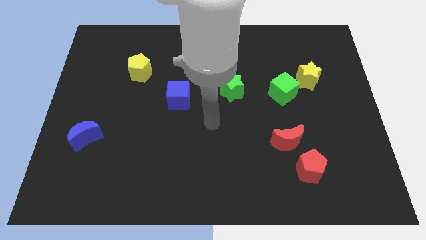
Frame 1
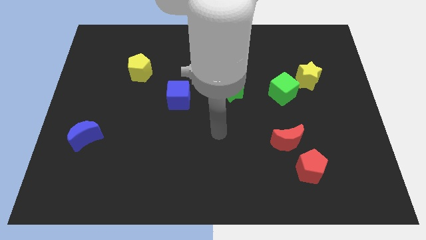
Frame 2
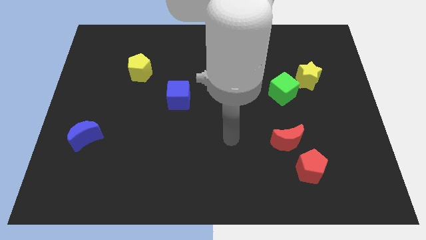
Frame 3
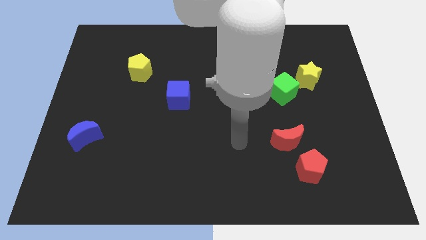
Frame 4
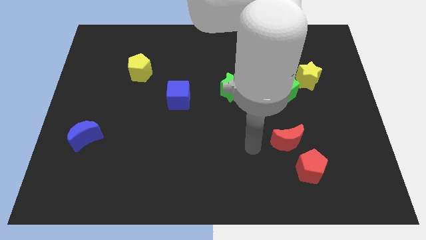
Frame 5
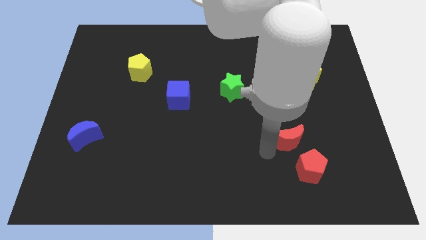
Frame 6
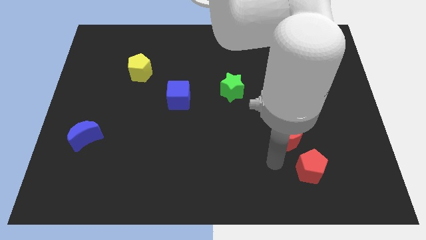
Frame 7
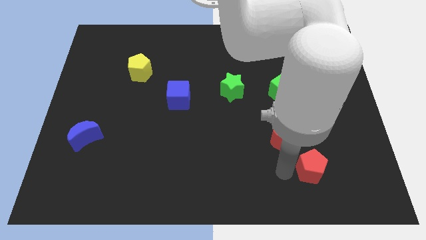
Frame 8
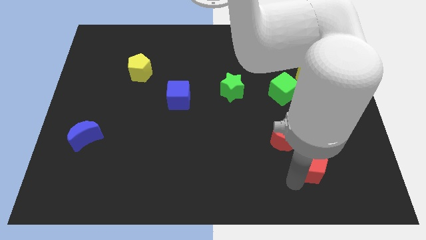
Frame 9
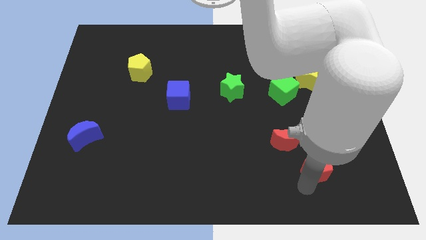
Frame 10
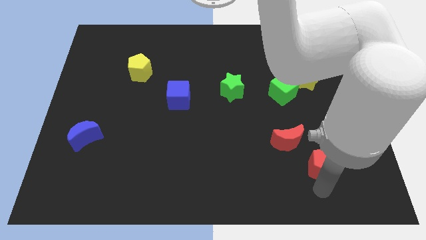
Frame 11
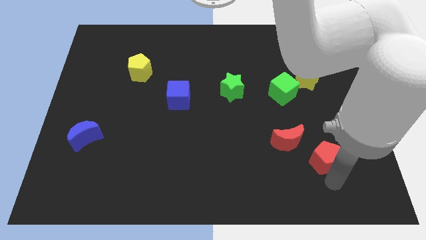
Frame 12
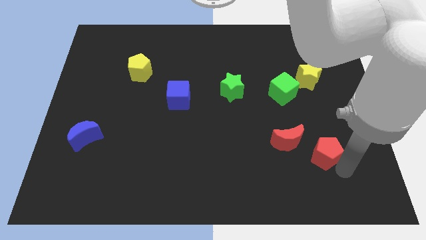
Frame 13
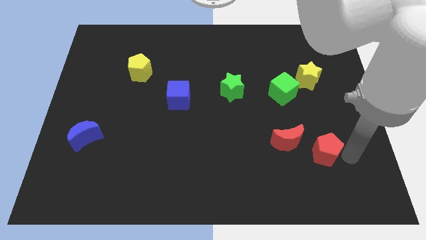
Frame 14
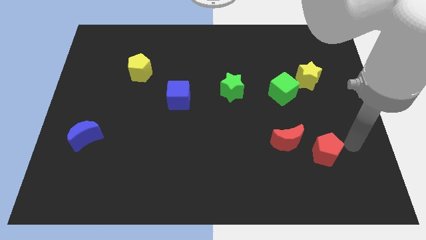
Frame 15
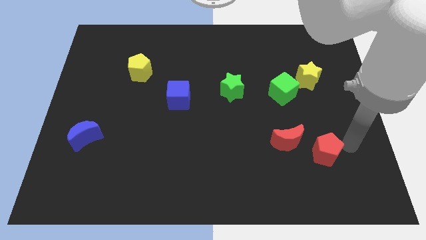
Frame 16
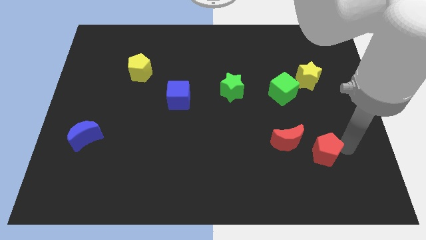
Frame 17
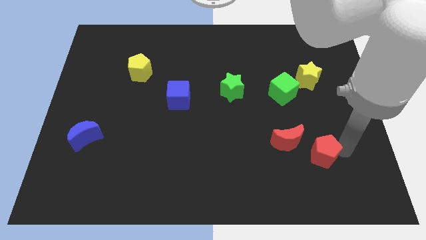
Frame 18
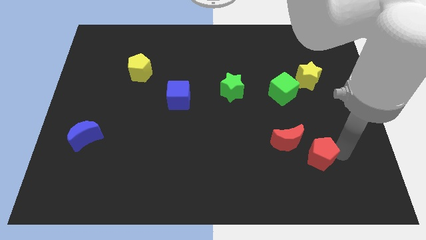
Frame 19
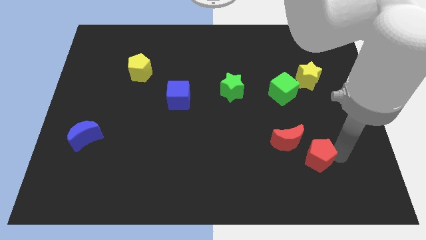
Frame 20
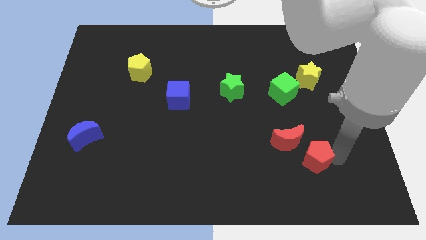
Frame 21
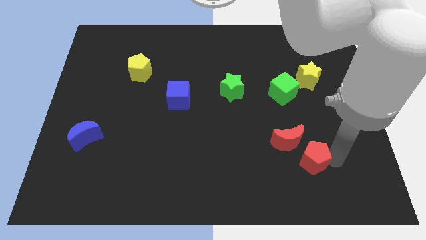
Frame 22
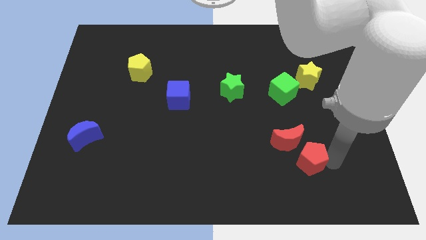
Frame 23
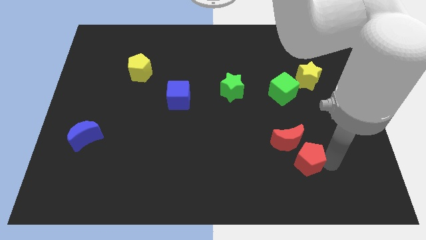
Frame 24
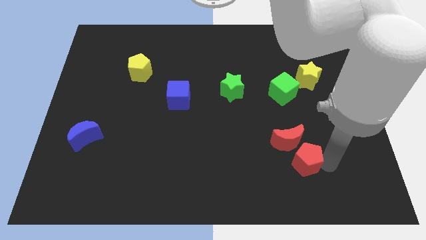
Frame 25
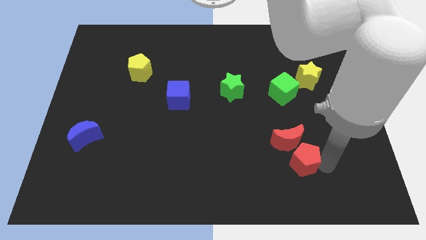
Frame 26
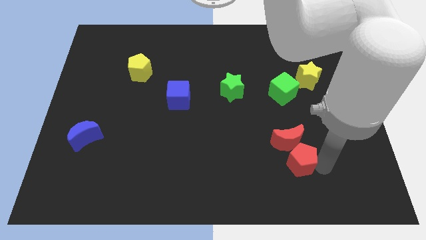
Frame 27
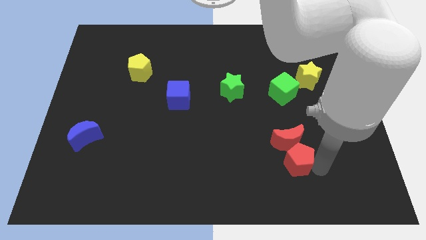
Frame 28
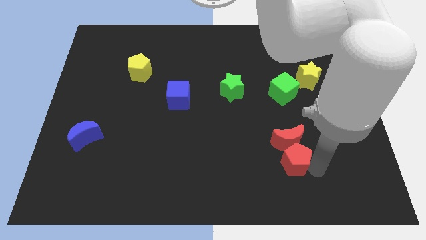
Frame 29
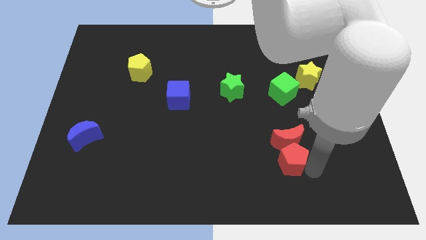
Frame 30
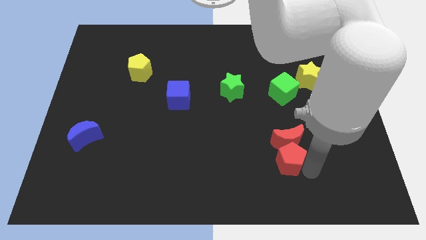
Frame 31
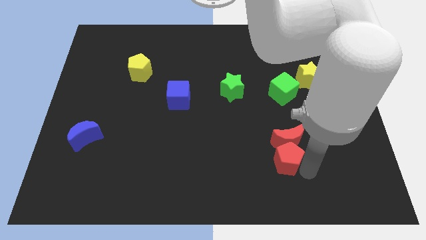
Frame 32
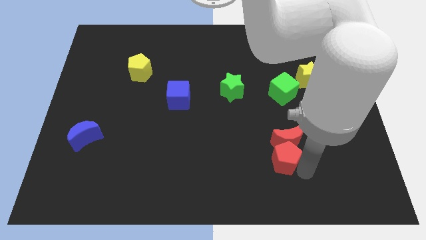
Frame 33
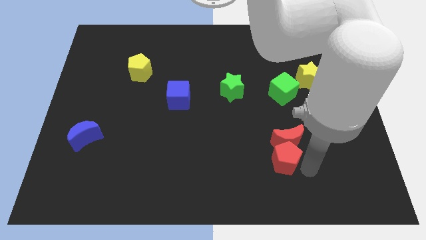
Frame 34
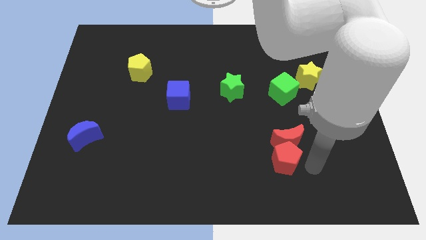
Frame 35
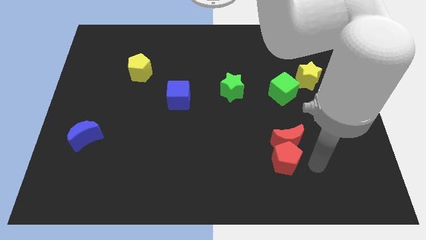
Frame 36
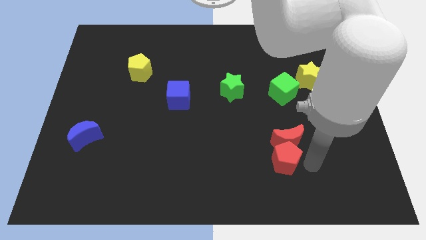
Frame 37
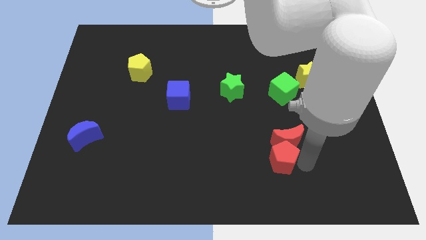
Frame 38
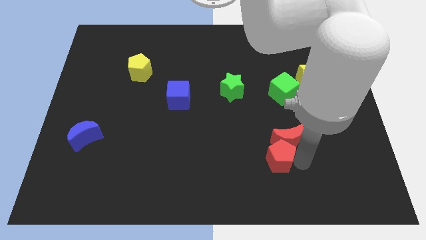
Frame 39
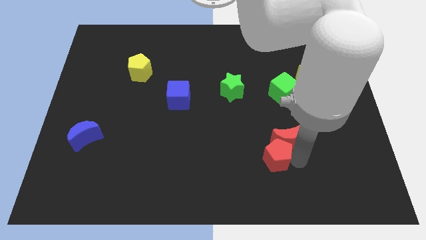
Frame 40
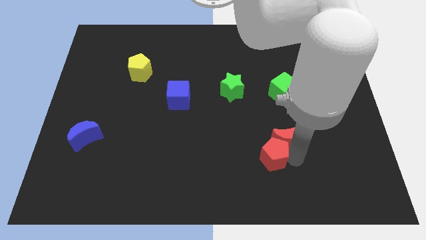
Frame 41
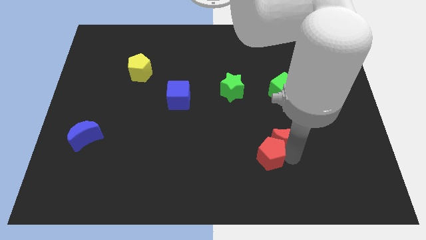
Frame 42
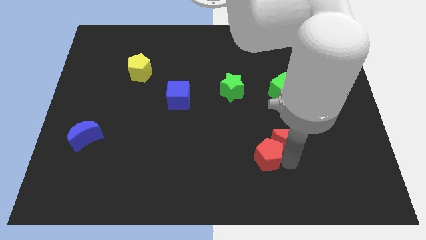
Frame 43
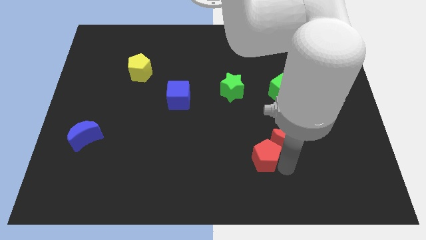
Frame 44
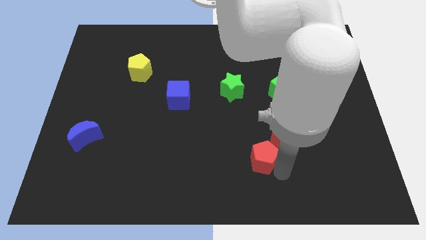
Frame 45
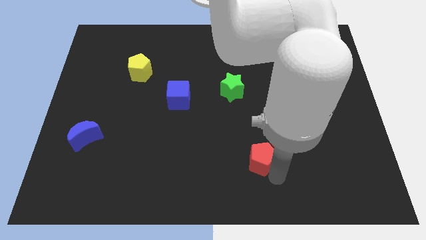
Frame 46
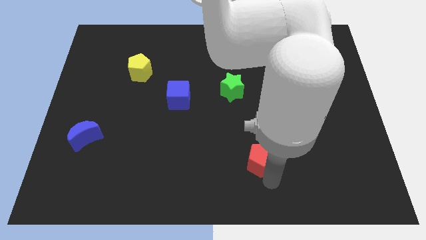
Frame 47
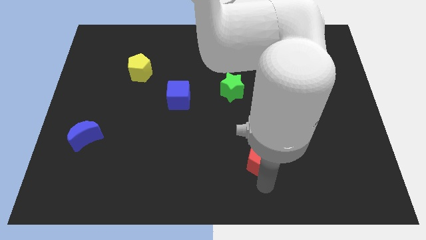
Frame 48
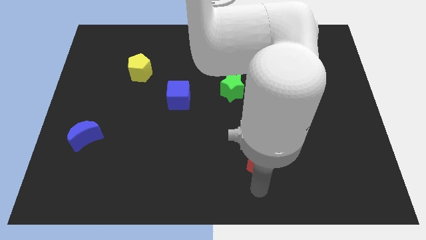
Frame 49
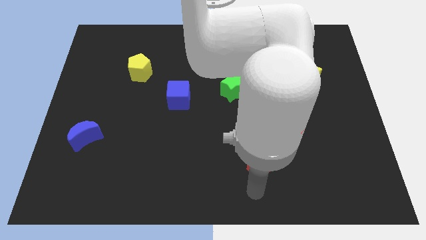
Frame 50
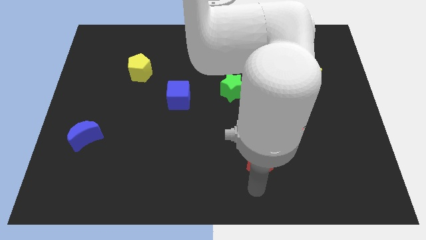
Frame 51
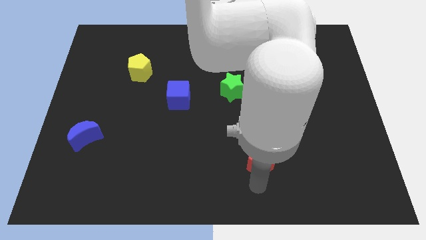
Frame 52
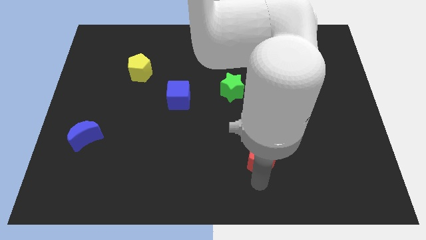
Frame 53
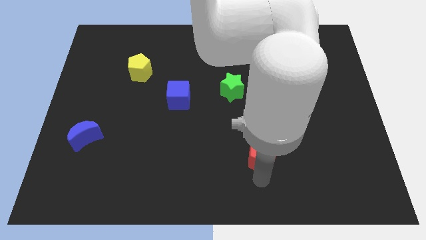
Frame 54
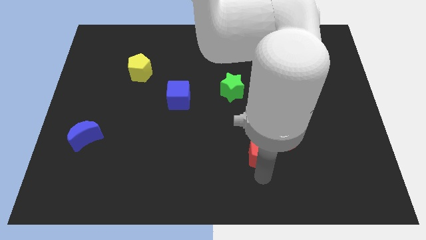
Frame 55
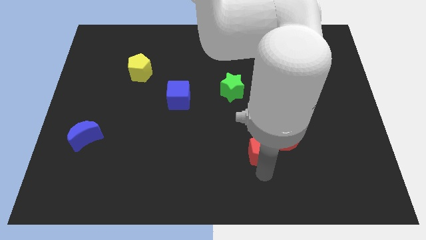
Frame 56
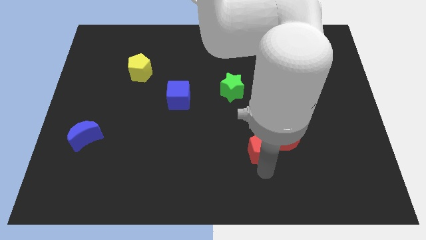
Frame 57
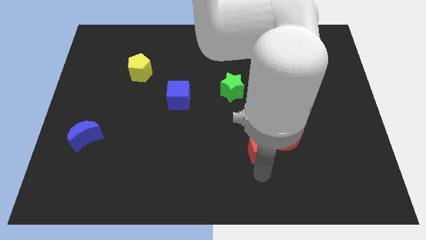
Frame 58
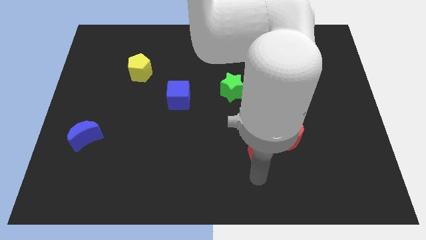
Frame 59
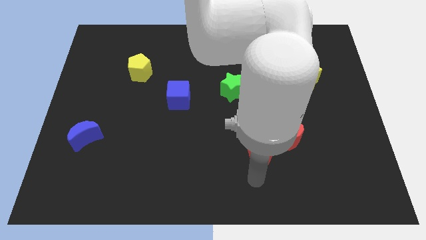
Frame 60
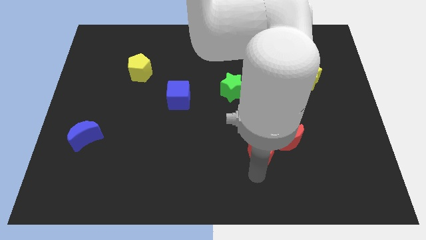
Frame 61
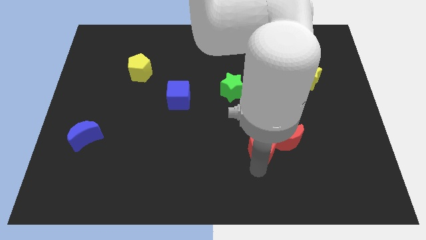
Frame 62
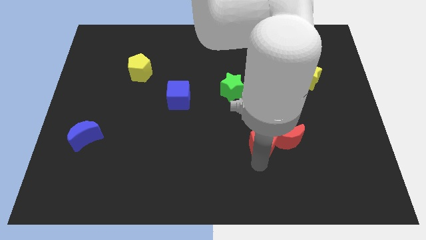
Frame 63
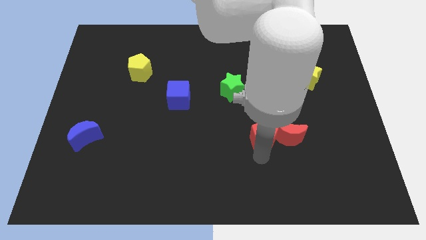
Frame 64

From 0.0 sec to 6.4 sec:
put the red pentagon to the top left side of the red moon

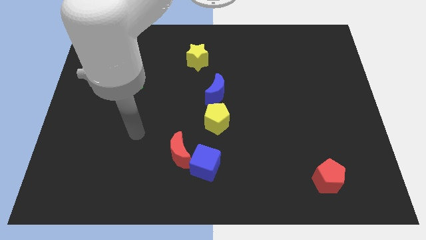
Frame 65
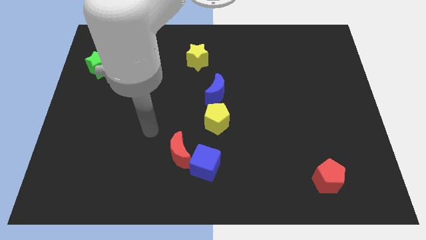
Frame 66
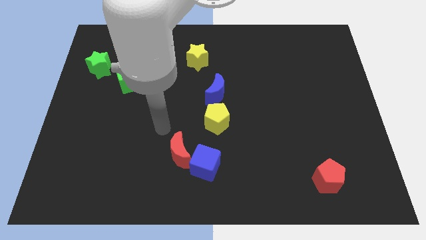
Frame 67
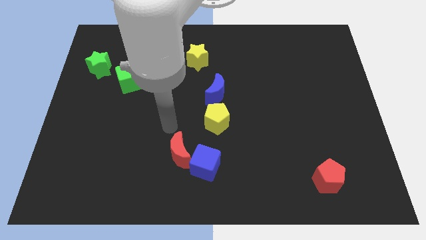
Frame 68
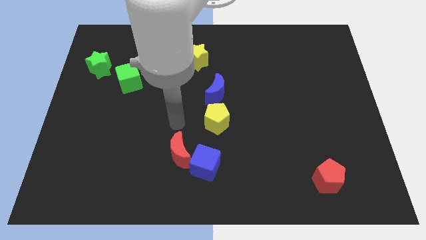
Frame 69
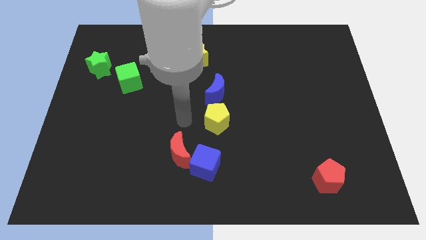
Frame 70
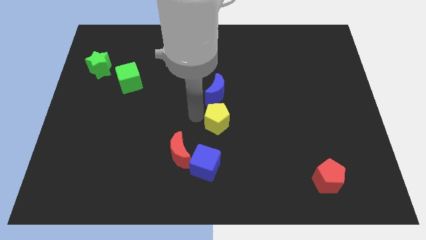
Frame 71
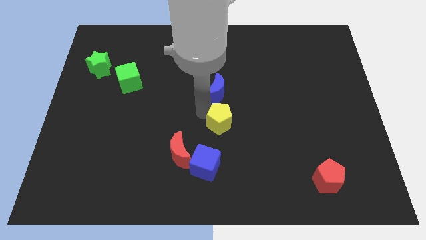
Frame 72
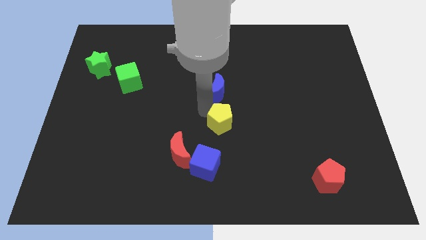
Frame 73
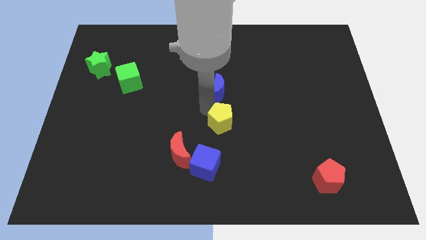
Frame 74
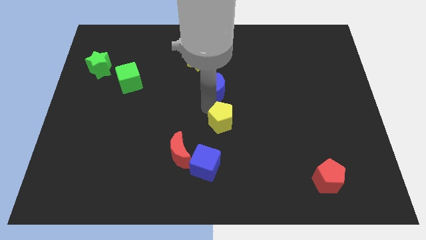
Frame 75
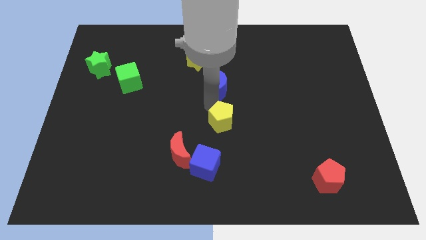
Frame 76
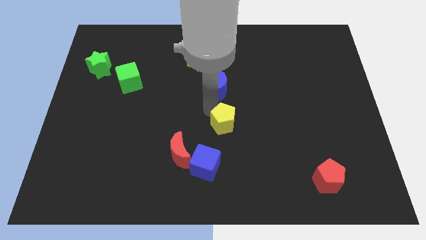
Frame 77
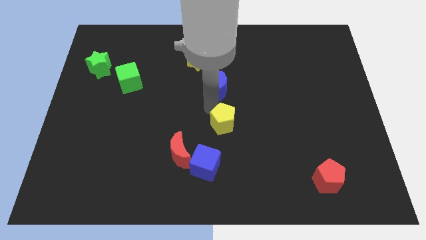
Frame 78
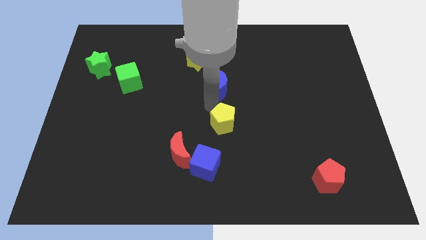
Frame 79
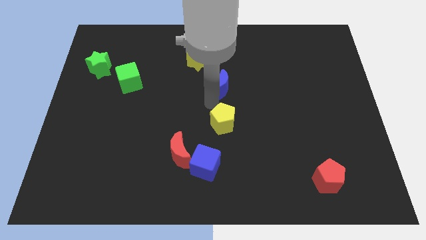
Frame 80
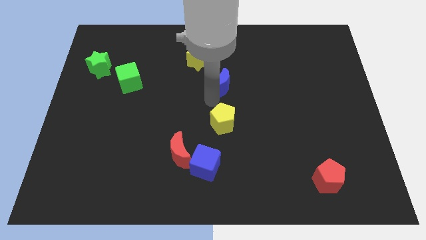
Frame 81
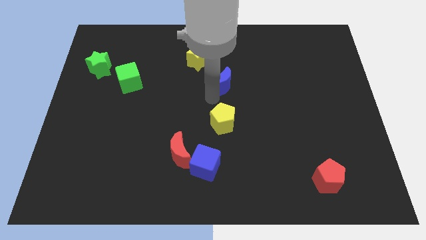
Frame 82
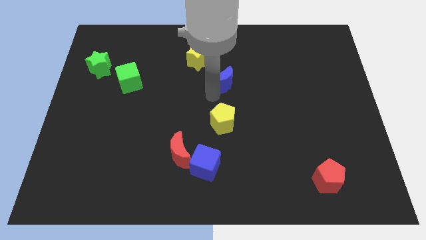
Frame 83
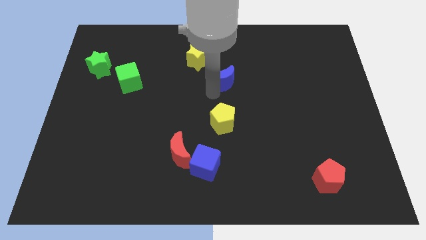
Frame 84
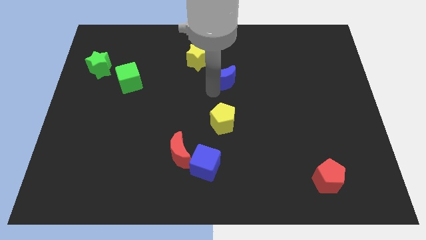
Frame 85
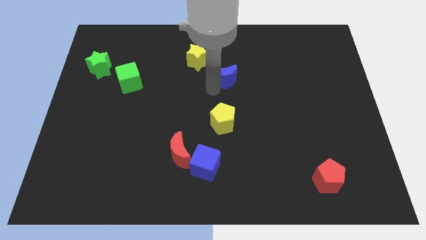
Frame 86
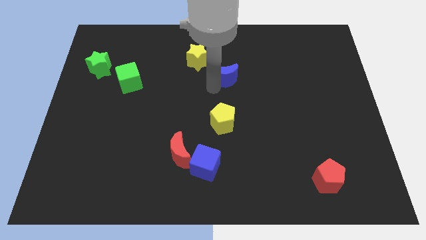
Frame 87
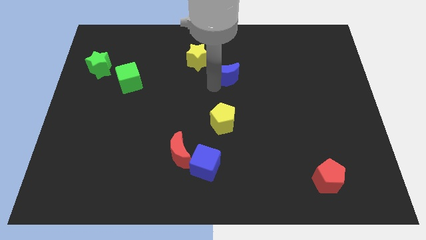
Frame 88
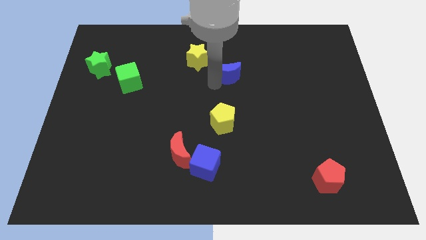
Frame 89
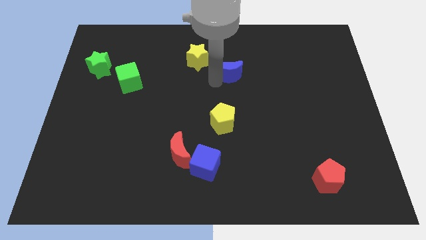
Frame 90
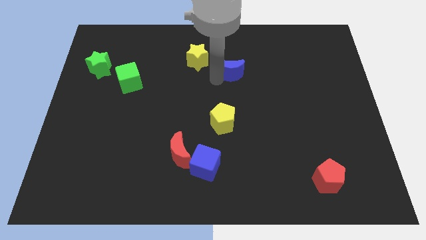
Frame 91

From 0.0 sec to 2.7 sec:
put the blue moon just right of the yellow star
